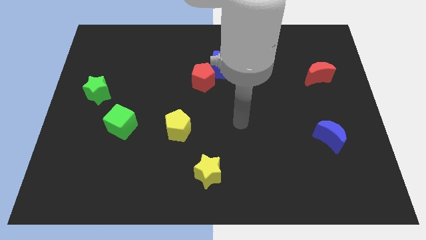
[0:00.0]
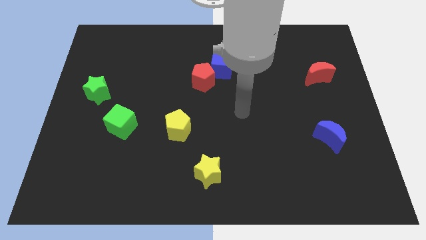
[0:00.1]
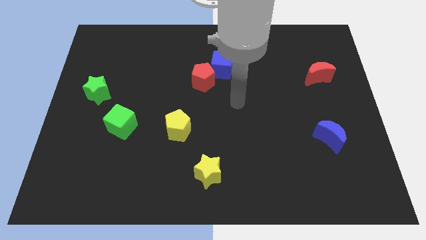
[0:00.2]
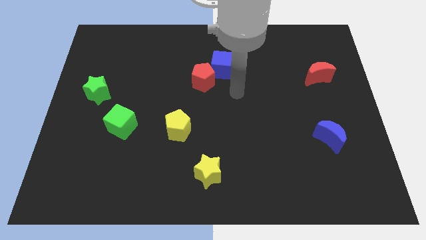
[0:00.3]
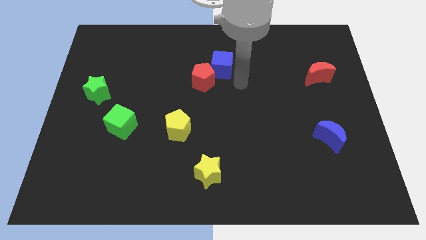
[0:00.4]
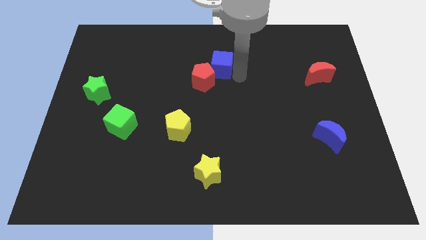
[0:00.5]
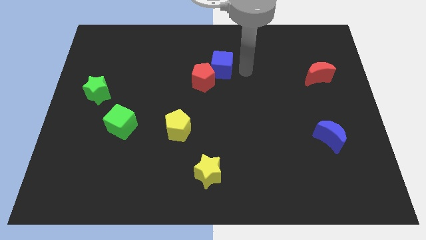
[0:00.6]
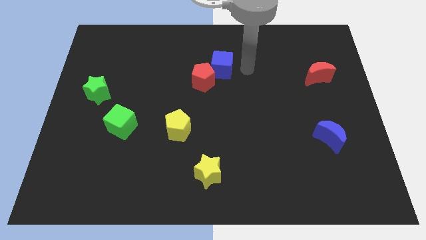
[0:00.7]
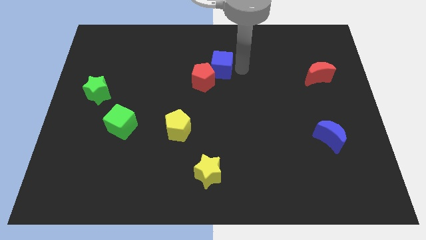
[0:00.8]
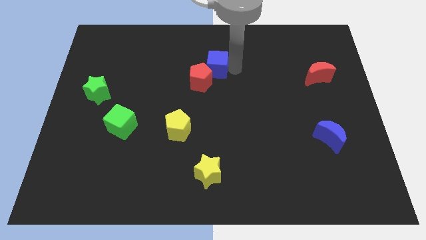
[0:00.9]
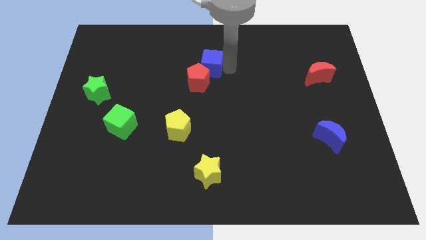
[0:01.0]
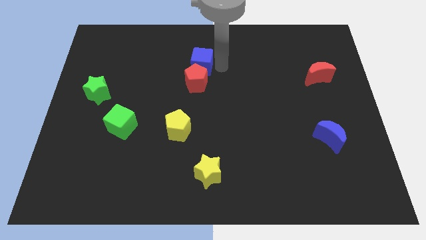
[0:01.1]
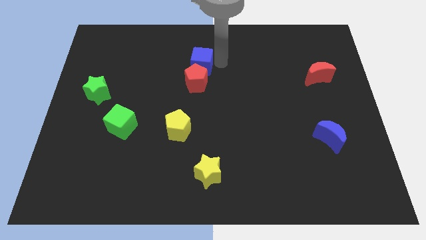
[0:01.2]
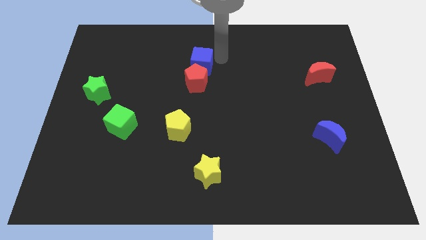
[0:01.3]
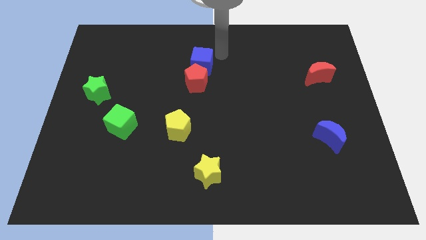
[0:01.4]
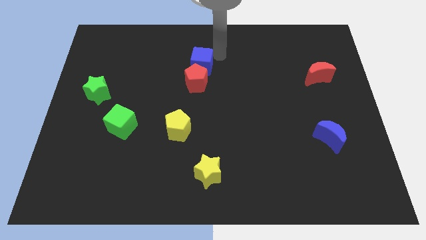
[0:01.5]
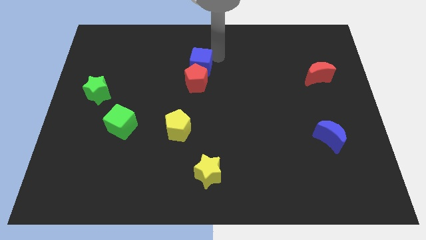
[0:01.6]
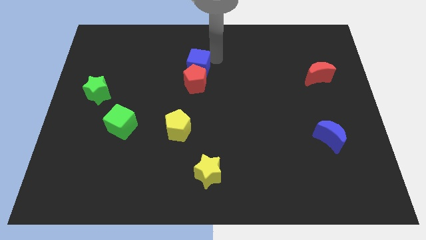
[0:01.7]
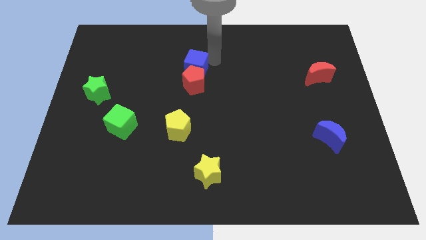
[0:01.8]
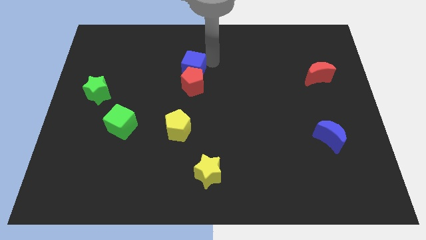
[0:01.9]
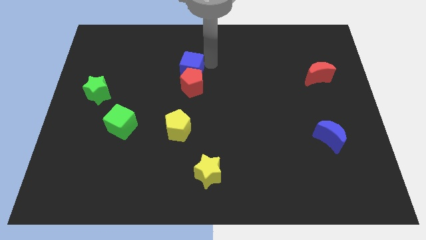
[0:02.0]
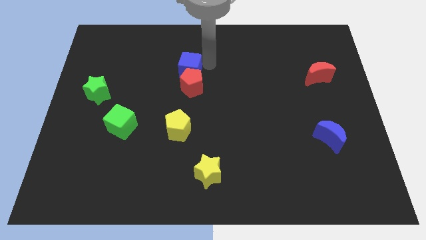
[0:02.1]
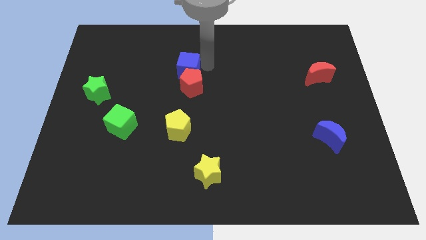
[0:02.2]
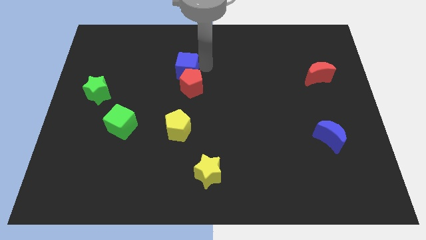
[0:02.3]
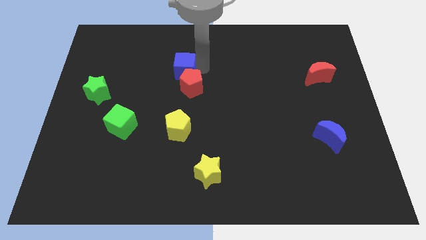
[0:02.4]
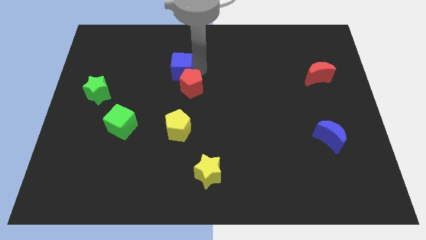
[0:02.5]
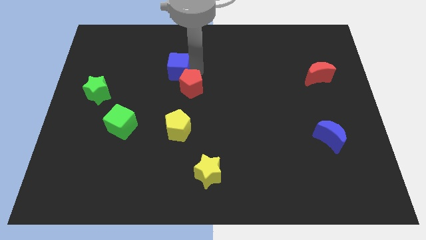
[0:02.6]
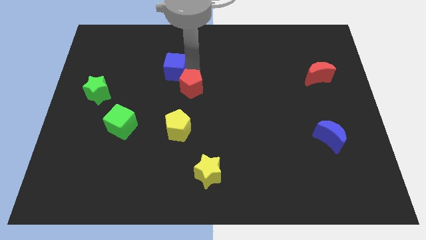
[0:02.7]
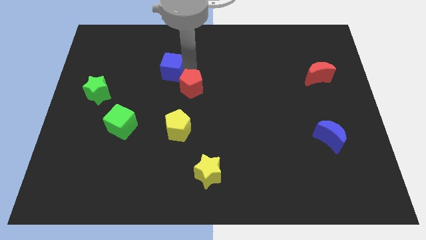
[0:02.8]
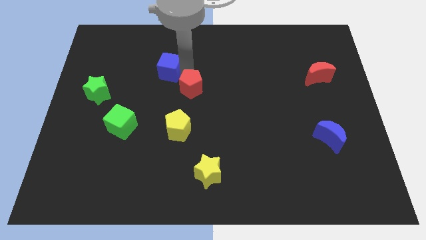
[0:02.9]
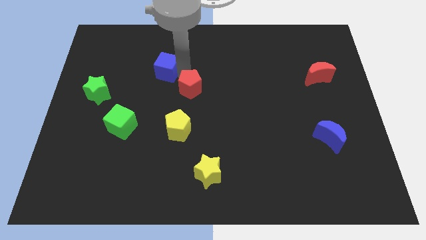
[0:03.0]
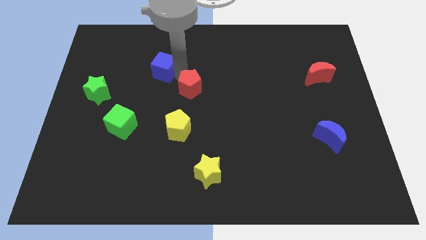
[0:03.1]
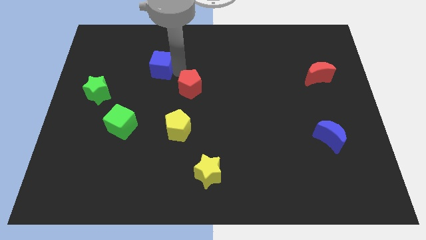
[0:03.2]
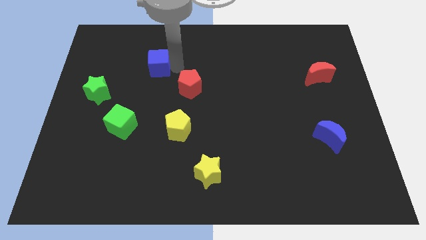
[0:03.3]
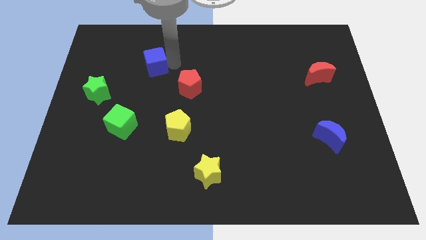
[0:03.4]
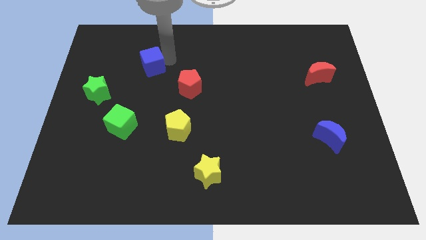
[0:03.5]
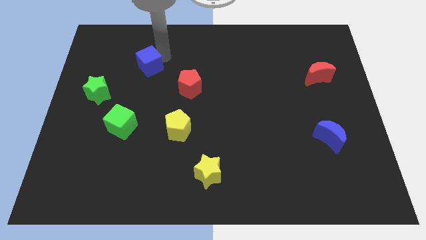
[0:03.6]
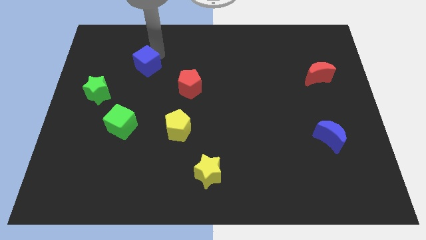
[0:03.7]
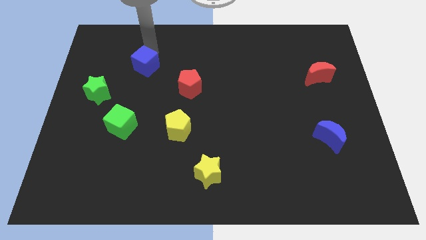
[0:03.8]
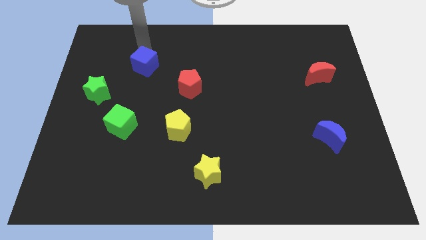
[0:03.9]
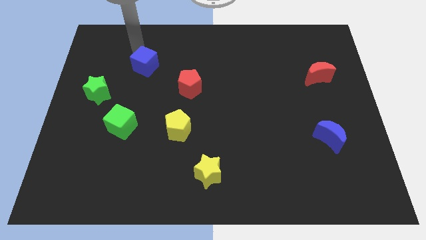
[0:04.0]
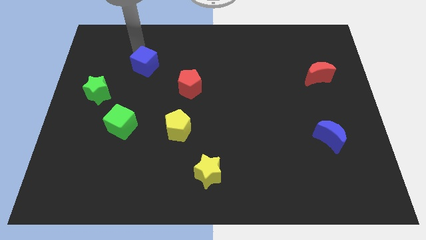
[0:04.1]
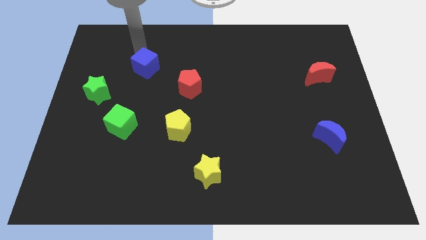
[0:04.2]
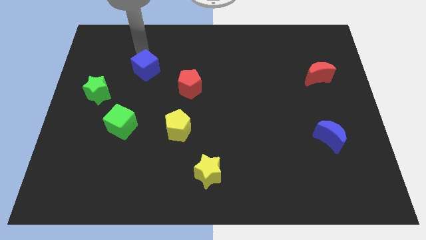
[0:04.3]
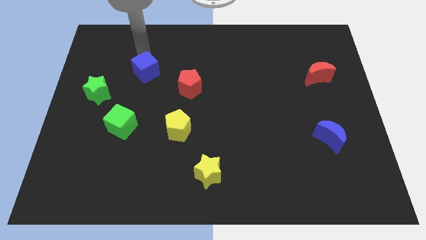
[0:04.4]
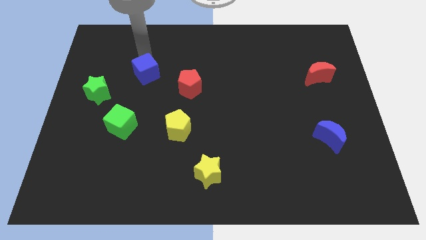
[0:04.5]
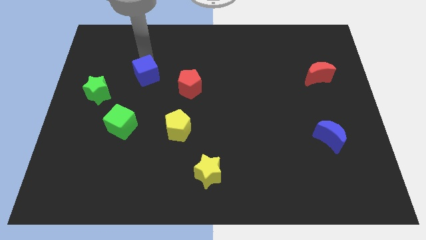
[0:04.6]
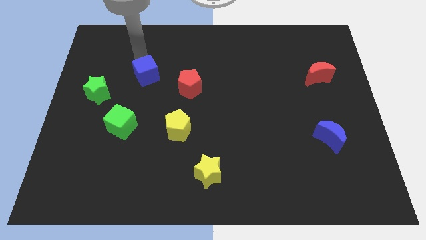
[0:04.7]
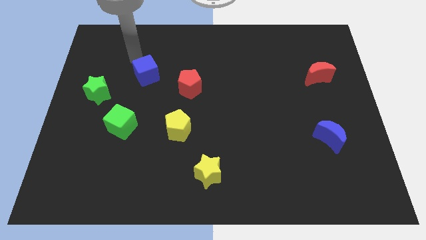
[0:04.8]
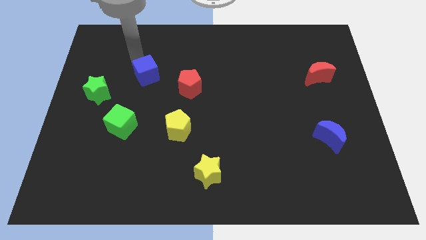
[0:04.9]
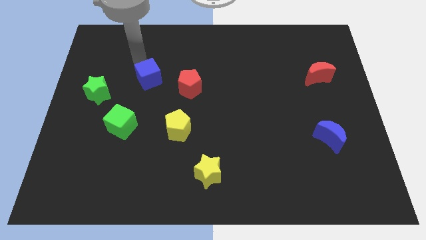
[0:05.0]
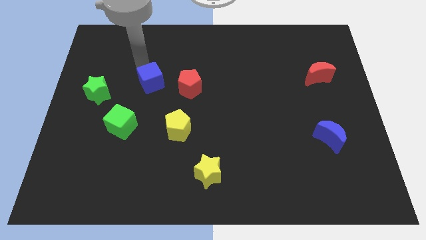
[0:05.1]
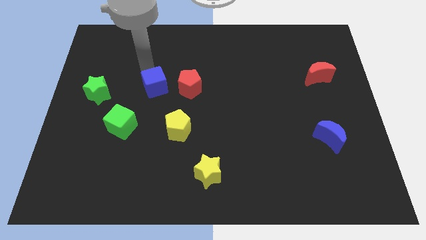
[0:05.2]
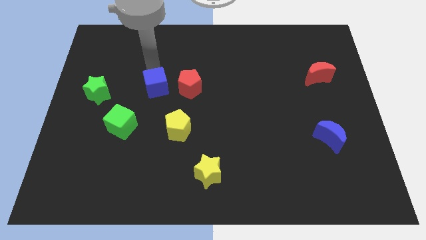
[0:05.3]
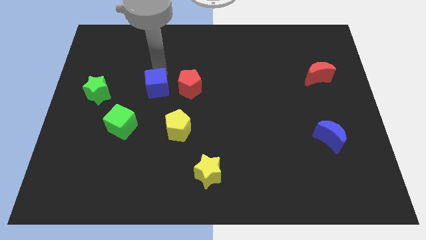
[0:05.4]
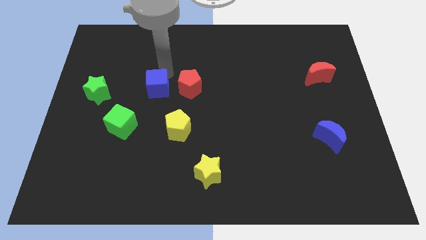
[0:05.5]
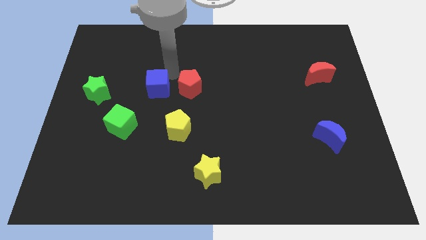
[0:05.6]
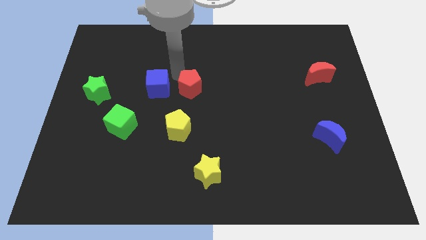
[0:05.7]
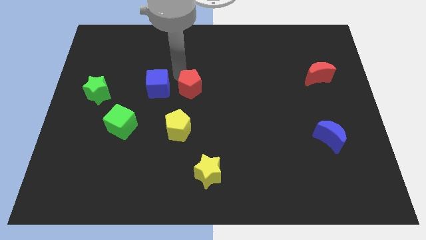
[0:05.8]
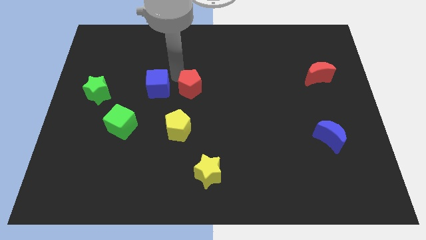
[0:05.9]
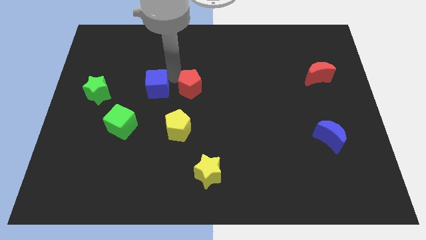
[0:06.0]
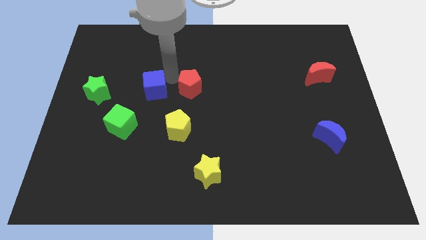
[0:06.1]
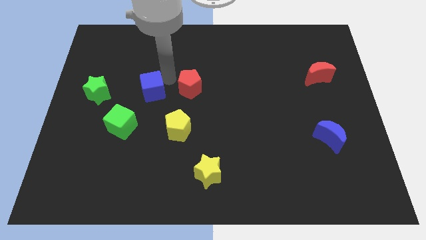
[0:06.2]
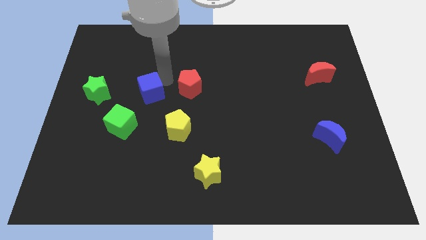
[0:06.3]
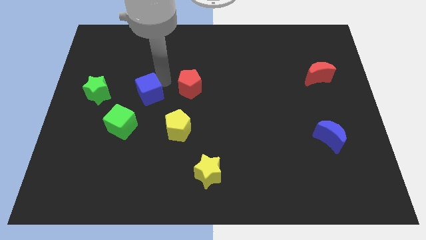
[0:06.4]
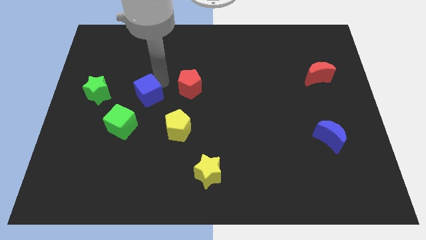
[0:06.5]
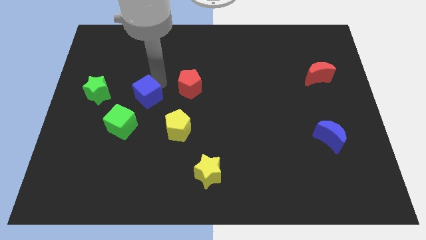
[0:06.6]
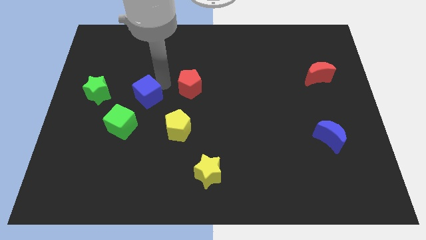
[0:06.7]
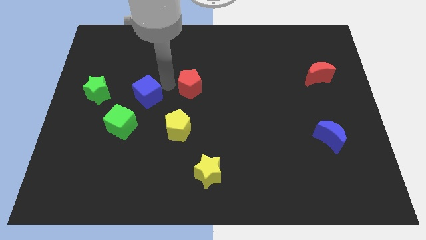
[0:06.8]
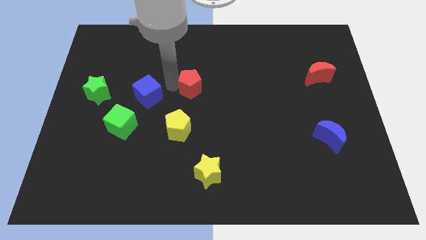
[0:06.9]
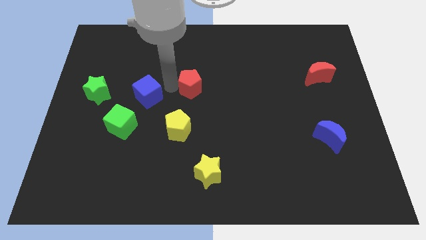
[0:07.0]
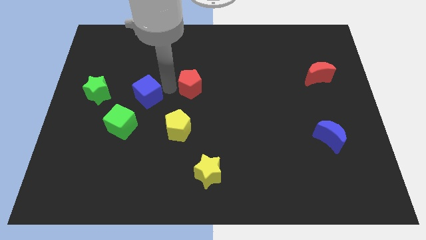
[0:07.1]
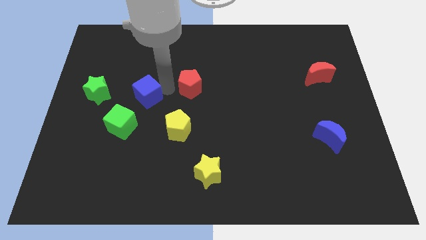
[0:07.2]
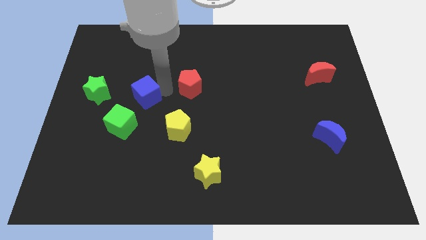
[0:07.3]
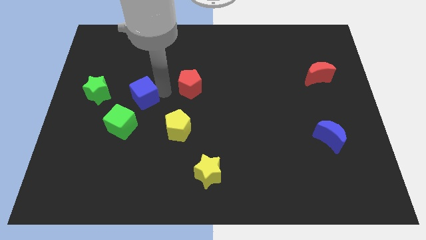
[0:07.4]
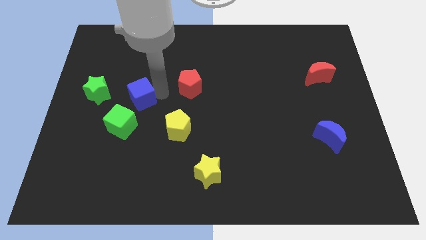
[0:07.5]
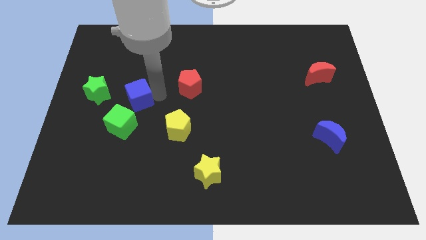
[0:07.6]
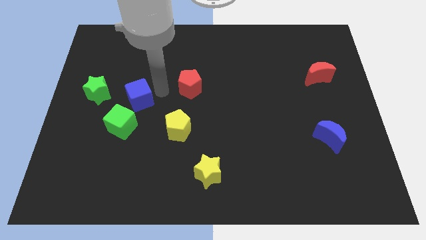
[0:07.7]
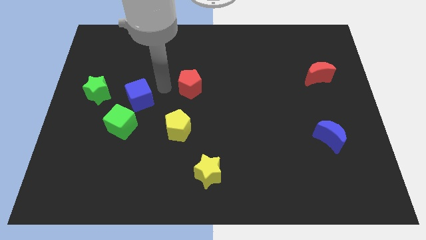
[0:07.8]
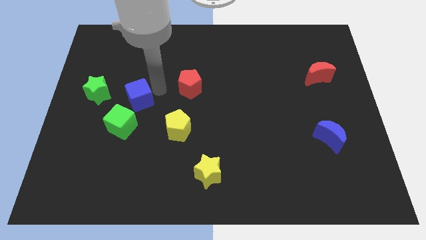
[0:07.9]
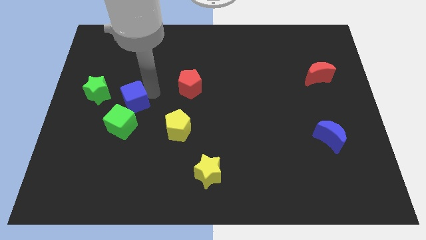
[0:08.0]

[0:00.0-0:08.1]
push the blue cube to the bottom right side of the green star
